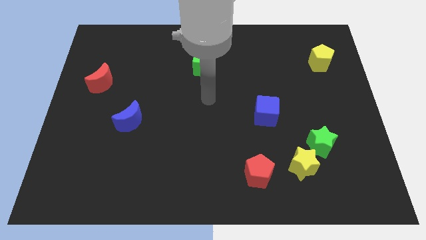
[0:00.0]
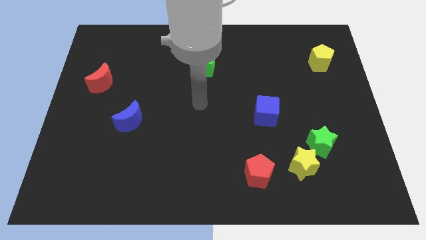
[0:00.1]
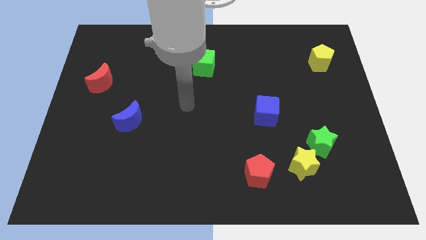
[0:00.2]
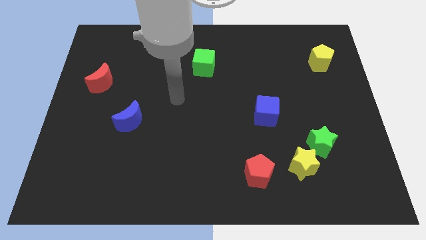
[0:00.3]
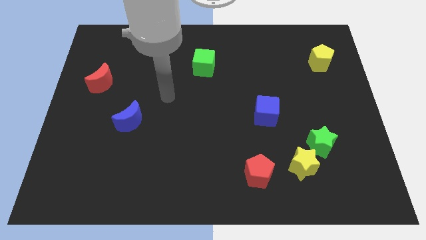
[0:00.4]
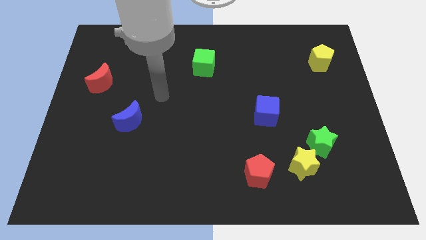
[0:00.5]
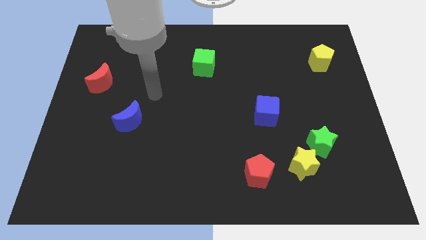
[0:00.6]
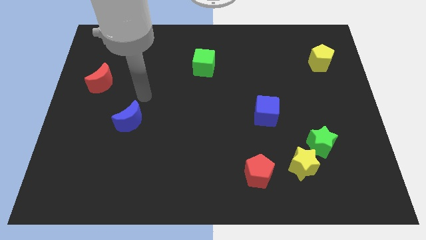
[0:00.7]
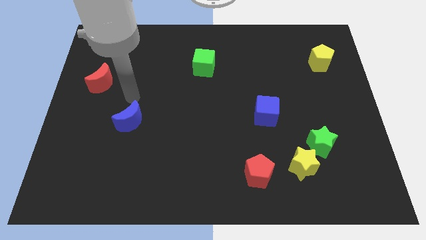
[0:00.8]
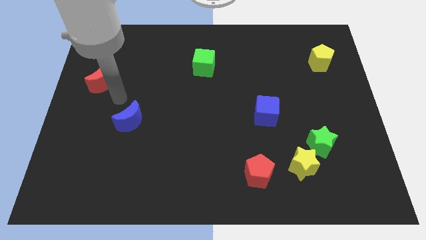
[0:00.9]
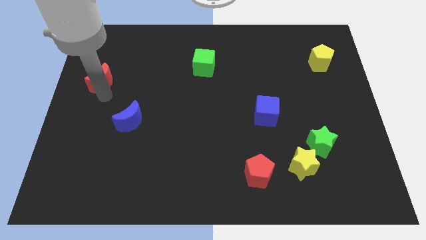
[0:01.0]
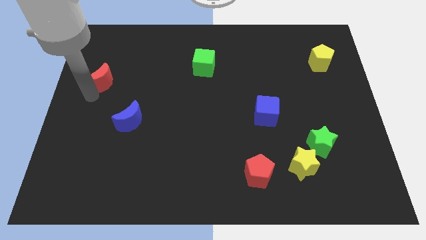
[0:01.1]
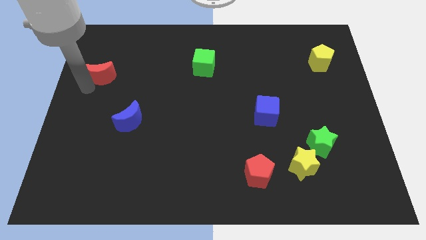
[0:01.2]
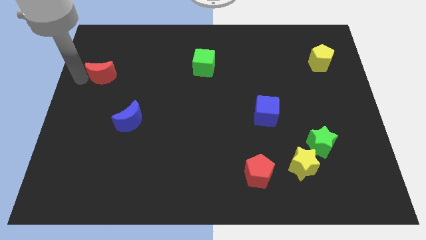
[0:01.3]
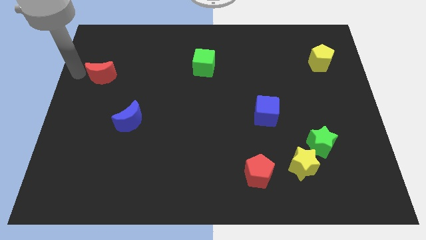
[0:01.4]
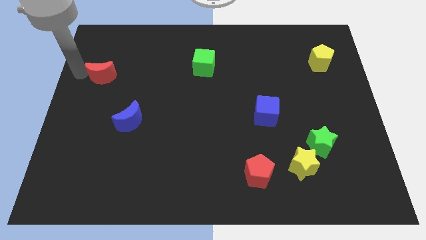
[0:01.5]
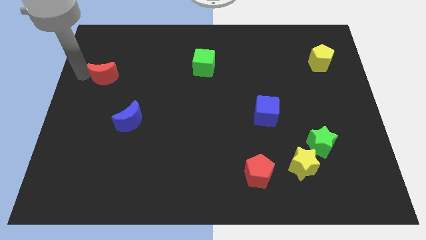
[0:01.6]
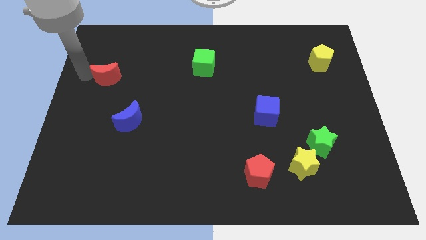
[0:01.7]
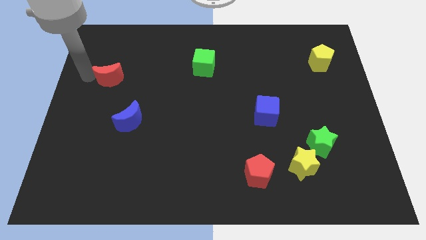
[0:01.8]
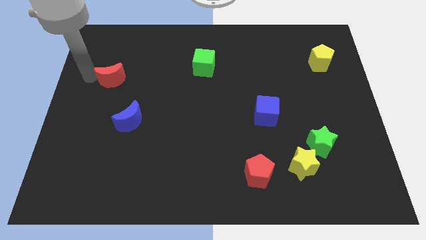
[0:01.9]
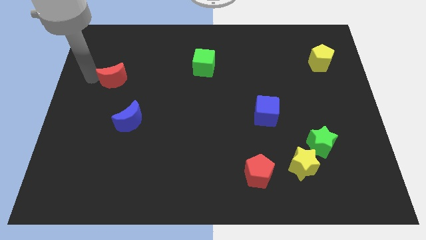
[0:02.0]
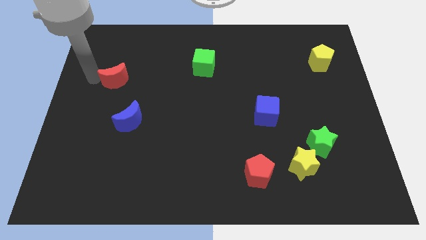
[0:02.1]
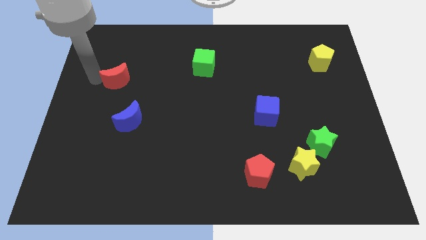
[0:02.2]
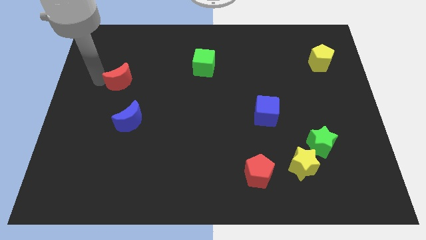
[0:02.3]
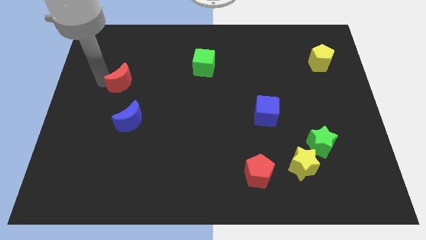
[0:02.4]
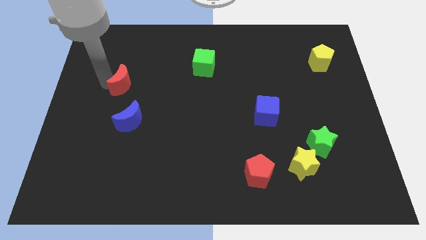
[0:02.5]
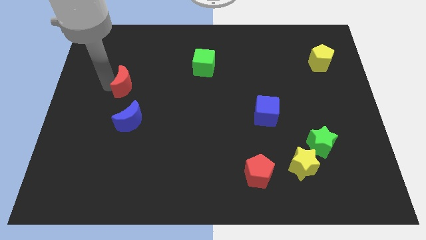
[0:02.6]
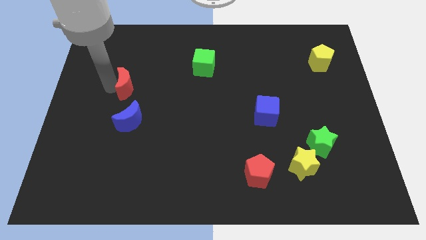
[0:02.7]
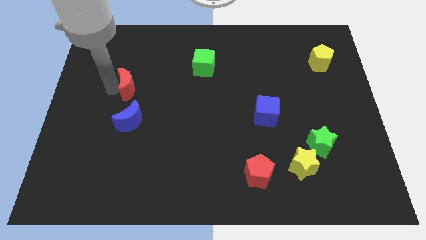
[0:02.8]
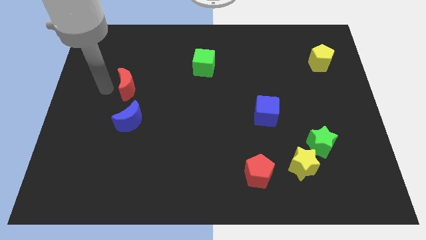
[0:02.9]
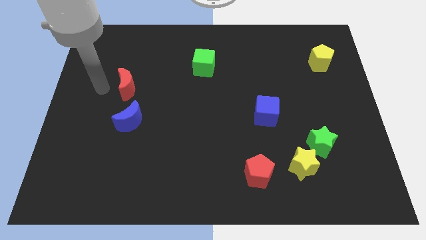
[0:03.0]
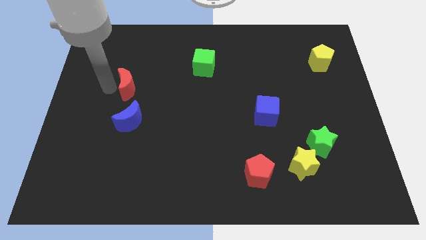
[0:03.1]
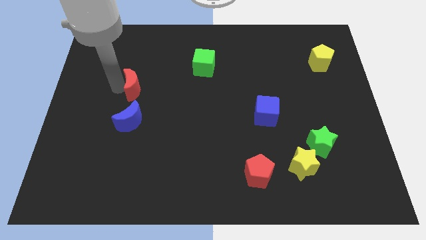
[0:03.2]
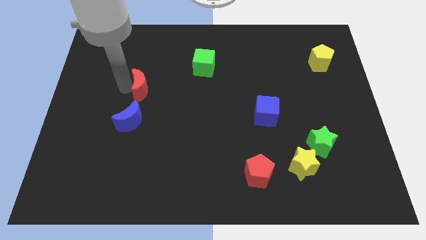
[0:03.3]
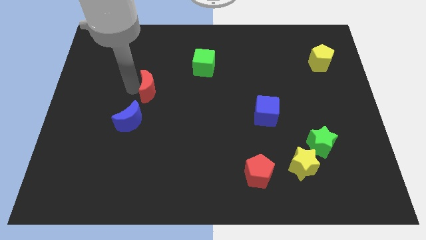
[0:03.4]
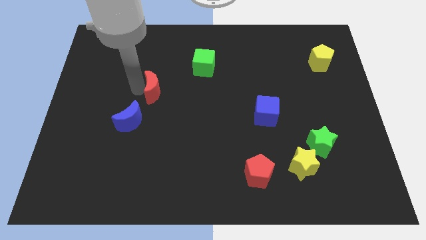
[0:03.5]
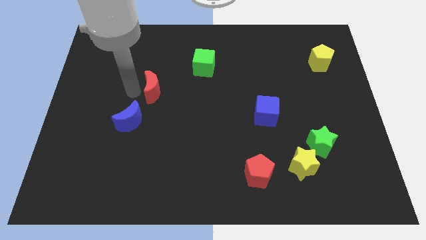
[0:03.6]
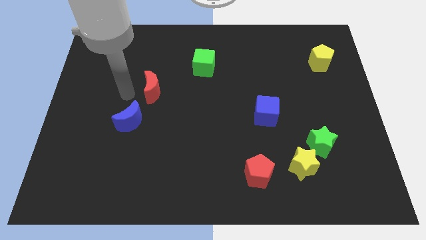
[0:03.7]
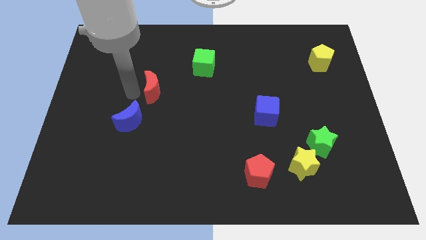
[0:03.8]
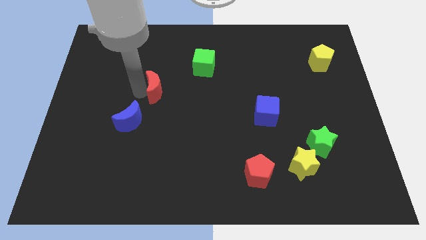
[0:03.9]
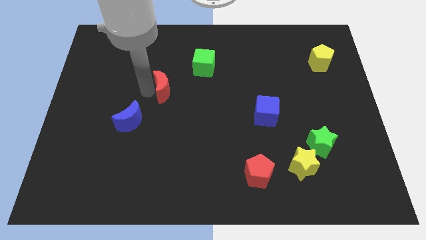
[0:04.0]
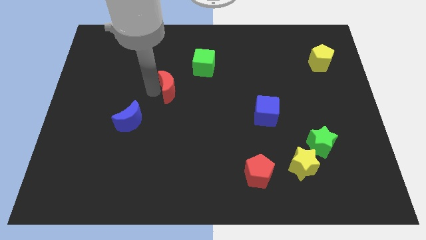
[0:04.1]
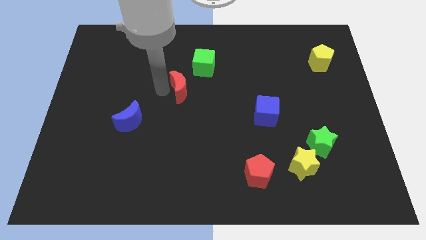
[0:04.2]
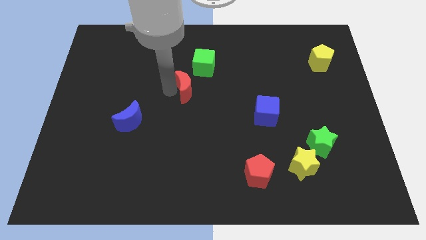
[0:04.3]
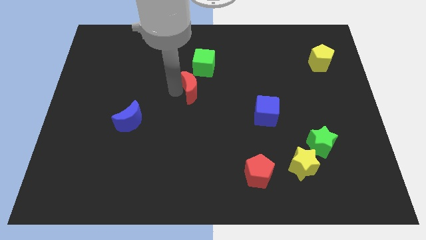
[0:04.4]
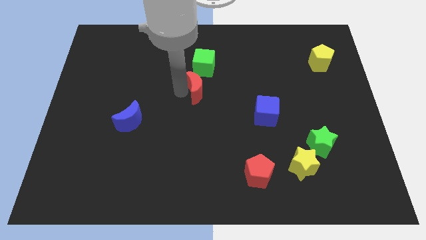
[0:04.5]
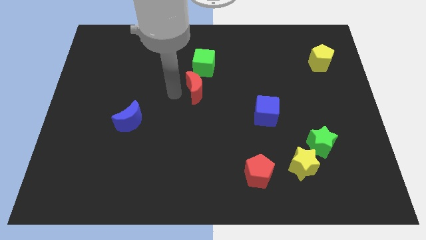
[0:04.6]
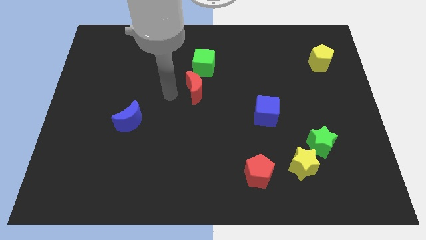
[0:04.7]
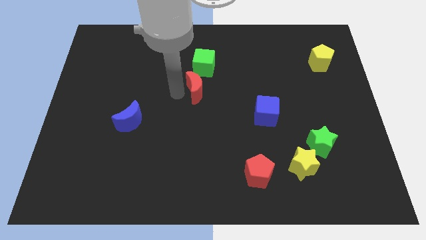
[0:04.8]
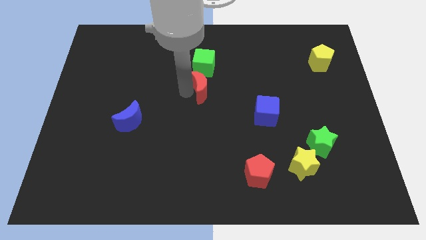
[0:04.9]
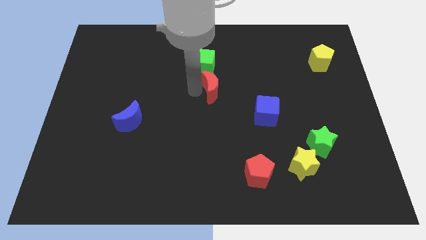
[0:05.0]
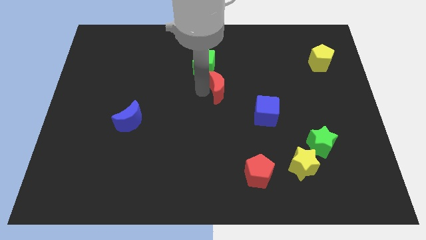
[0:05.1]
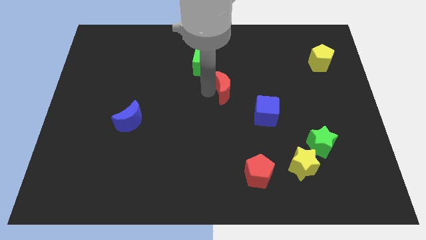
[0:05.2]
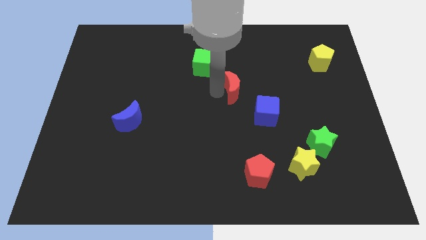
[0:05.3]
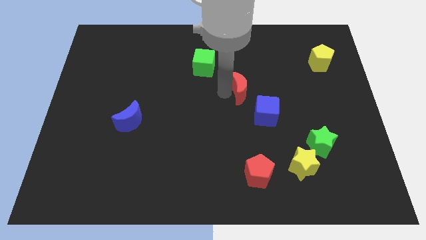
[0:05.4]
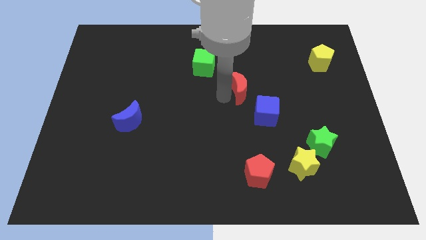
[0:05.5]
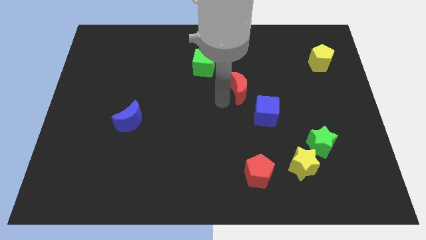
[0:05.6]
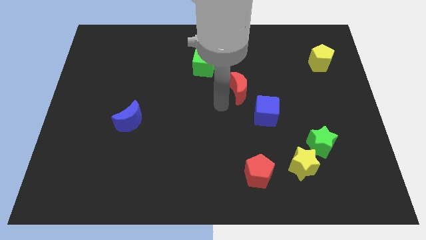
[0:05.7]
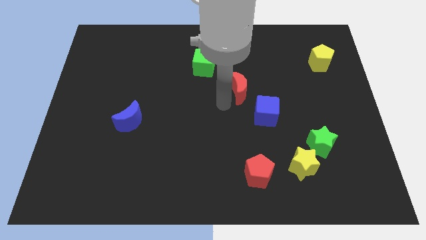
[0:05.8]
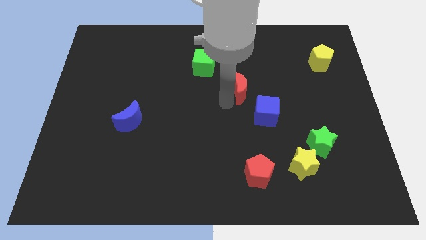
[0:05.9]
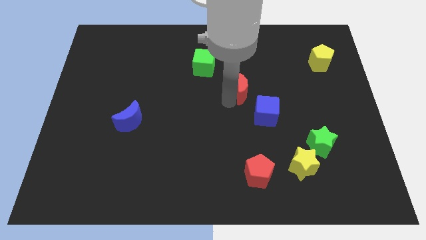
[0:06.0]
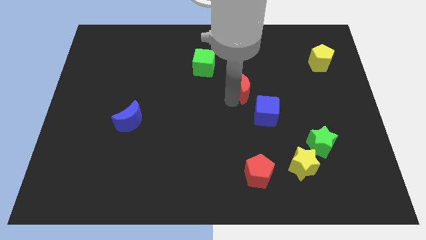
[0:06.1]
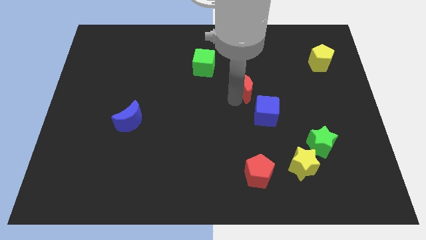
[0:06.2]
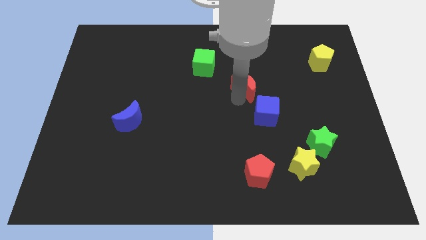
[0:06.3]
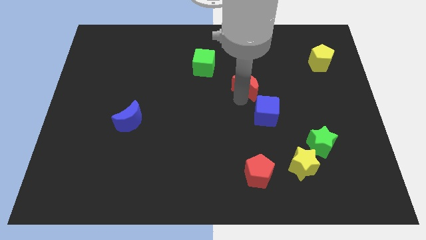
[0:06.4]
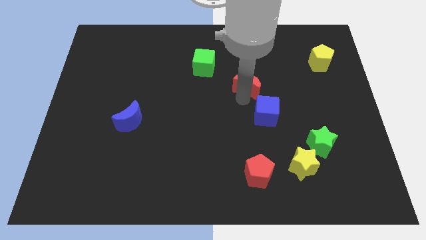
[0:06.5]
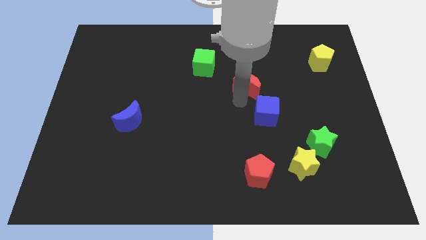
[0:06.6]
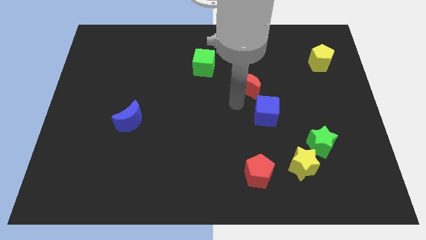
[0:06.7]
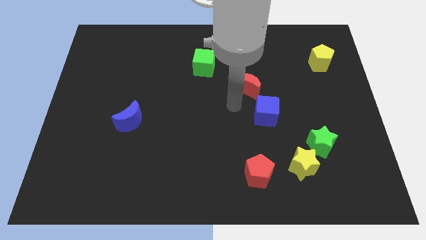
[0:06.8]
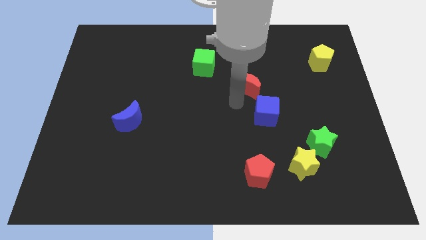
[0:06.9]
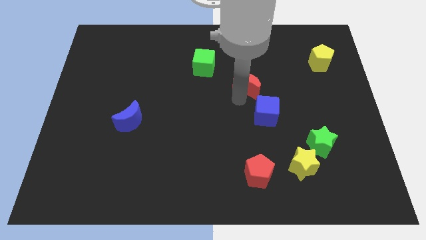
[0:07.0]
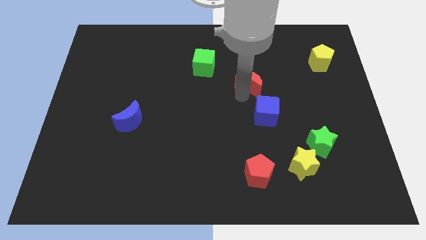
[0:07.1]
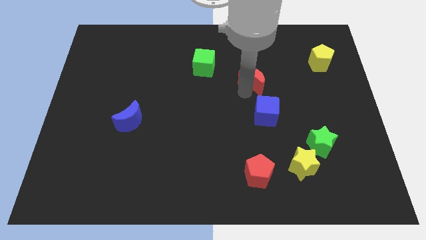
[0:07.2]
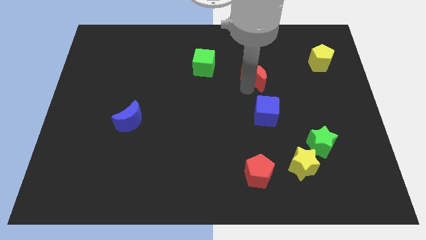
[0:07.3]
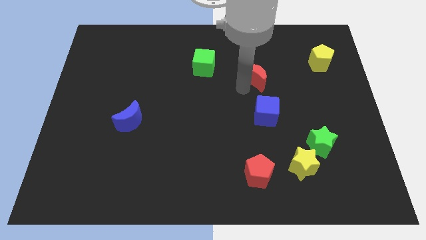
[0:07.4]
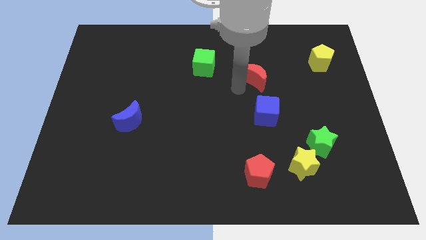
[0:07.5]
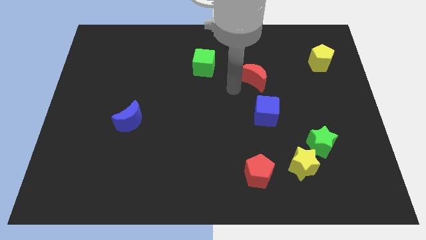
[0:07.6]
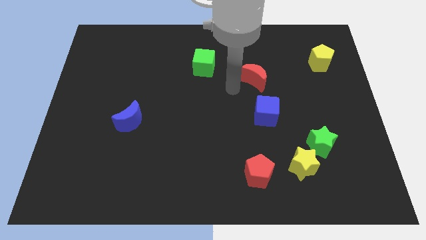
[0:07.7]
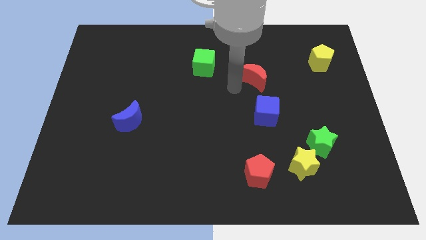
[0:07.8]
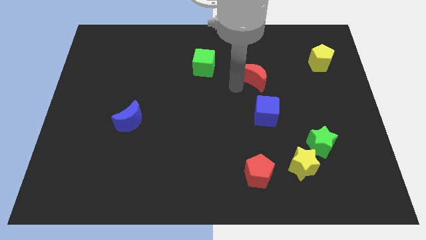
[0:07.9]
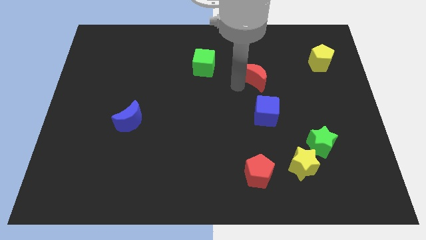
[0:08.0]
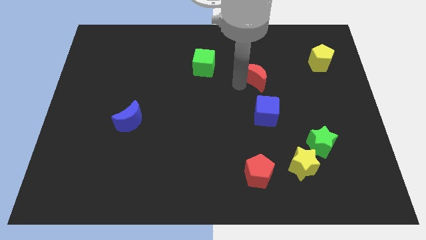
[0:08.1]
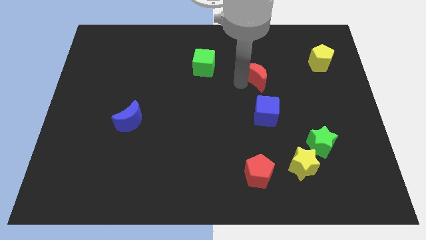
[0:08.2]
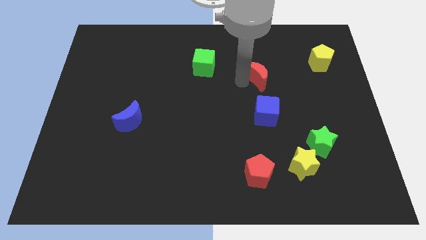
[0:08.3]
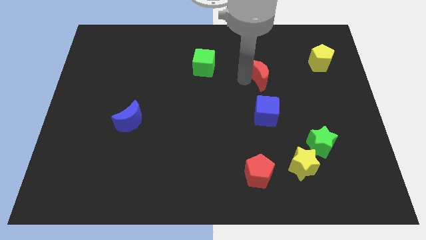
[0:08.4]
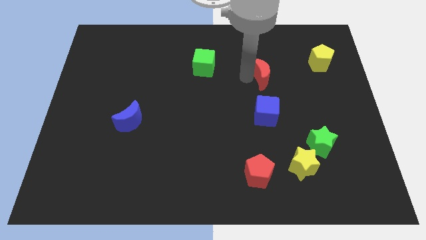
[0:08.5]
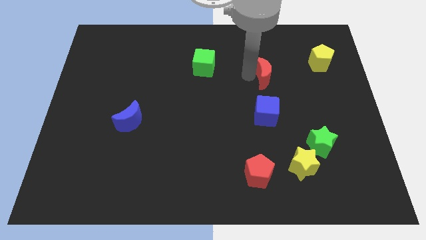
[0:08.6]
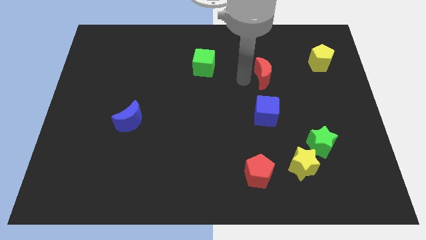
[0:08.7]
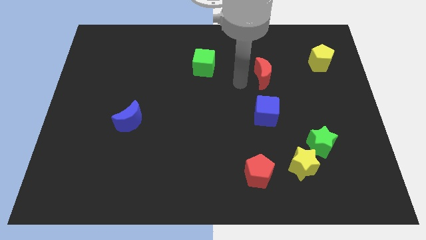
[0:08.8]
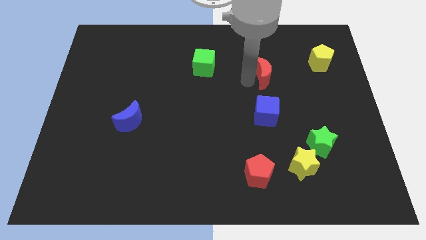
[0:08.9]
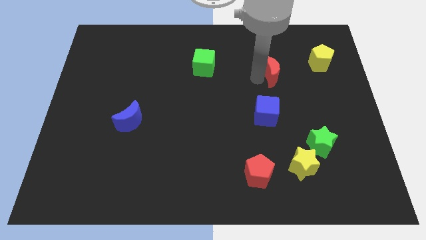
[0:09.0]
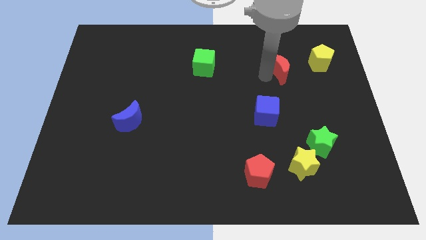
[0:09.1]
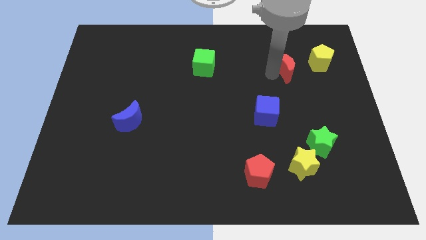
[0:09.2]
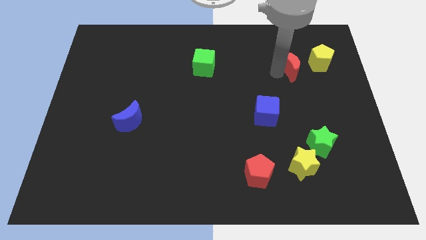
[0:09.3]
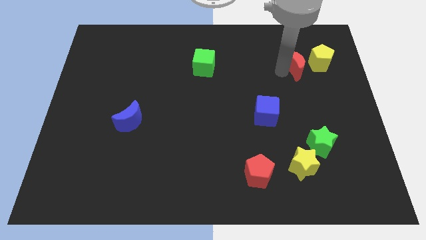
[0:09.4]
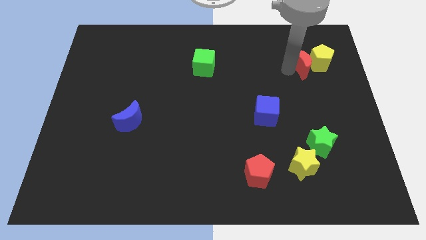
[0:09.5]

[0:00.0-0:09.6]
put the red moon towards the yellow pentagon
